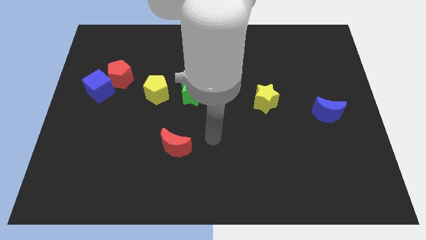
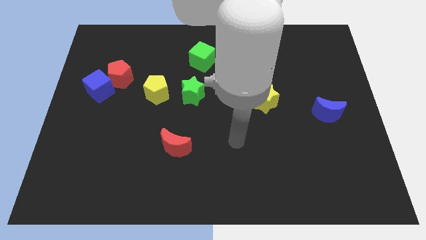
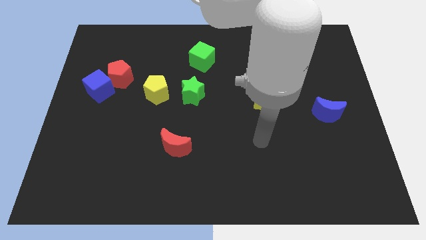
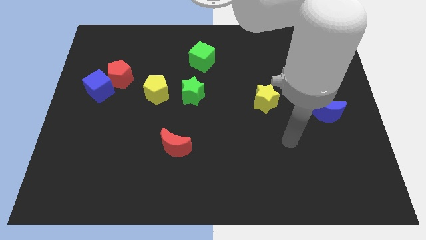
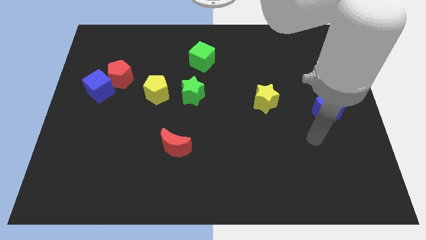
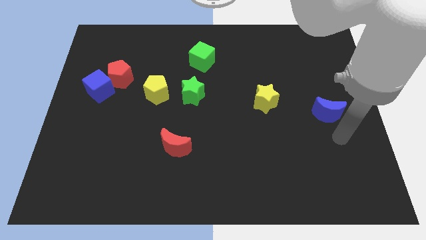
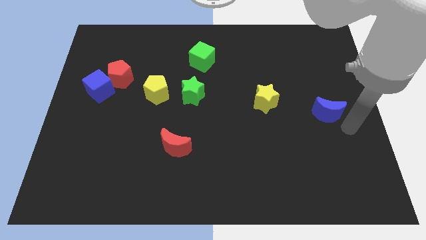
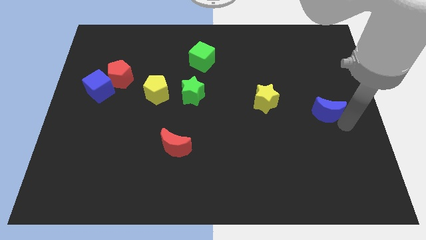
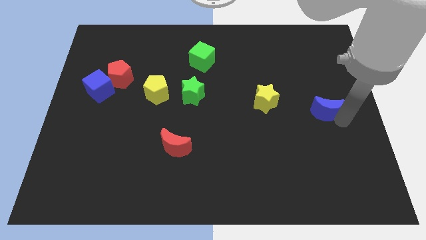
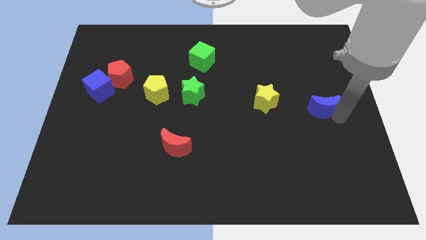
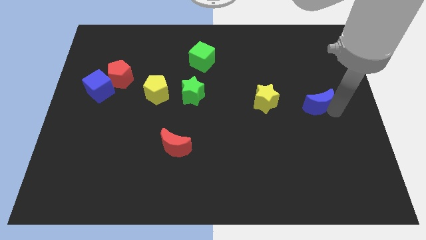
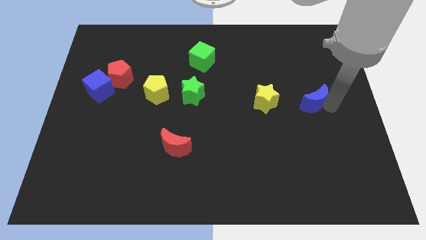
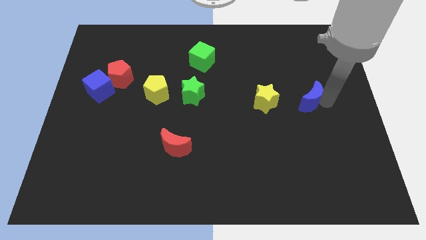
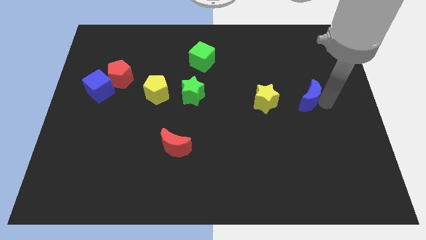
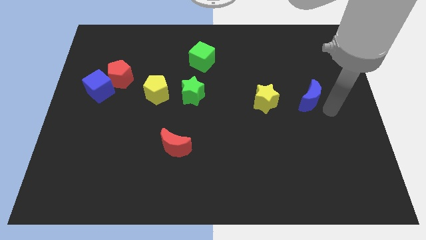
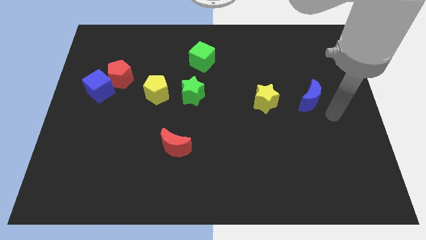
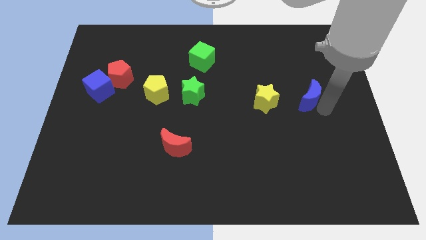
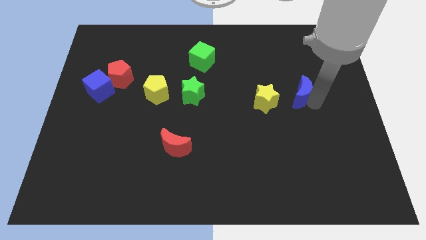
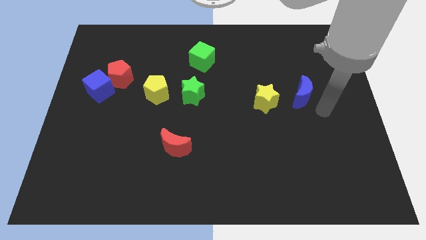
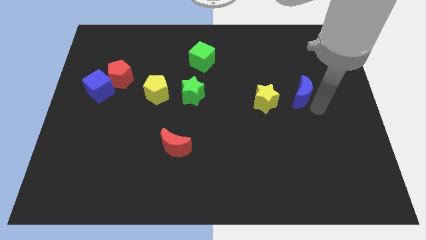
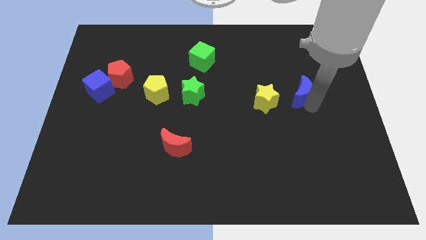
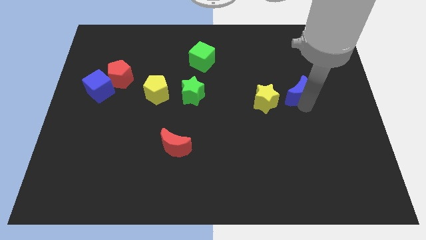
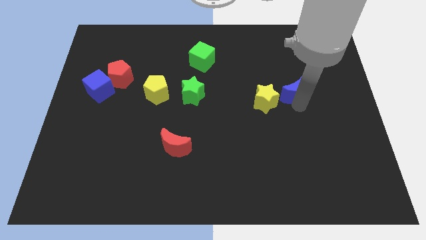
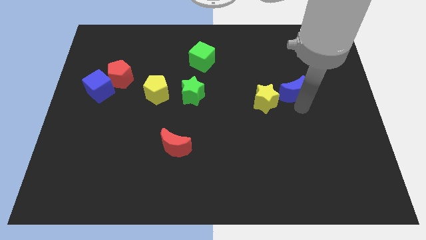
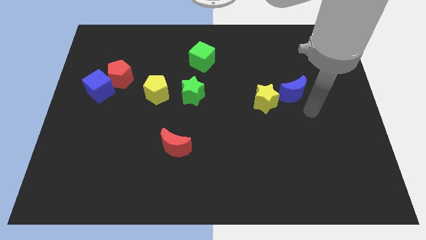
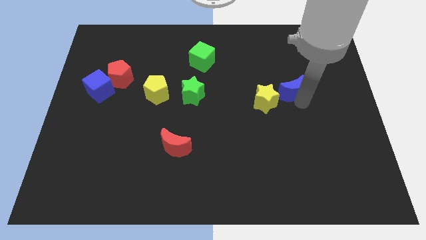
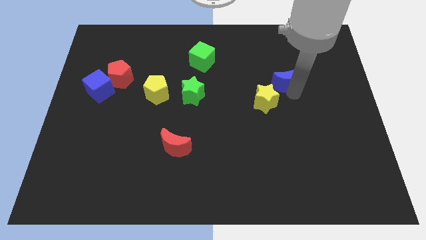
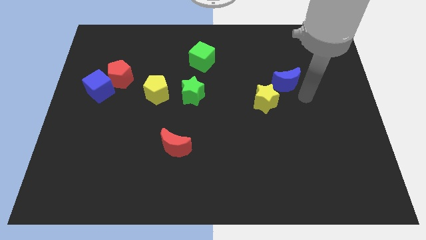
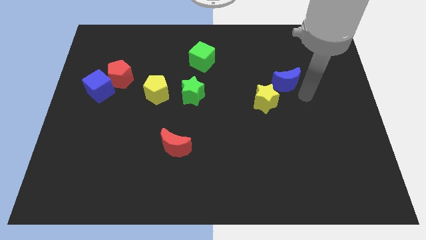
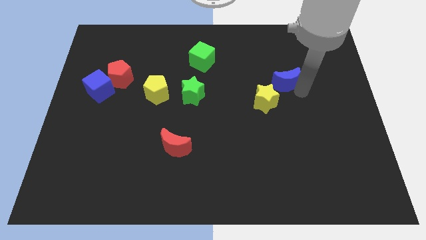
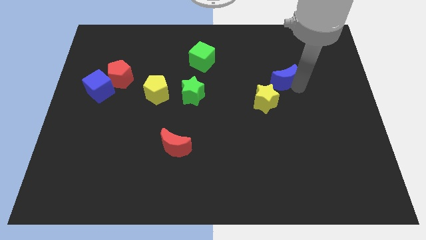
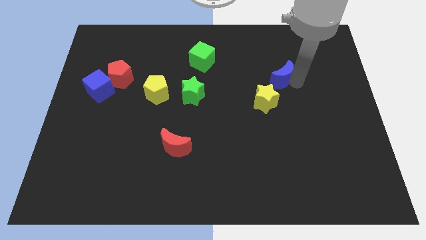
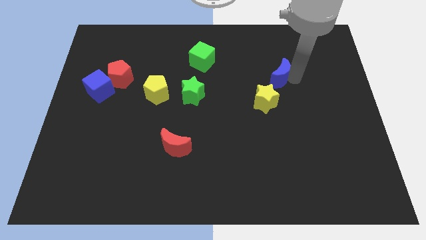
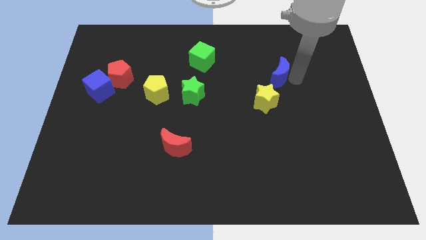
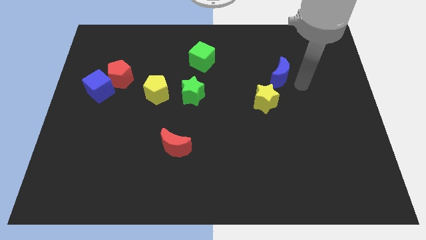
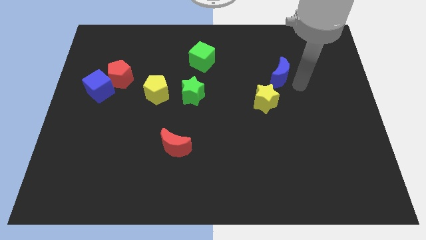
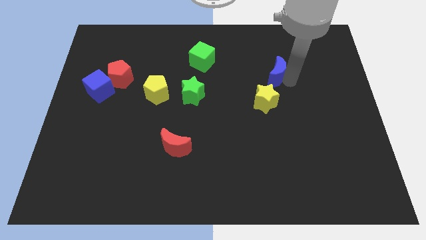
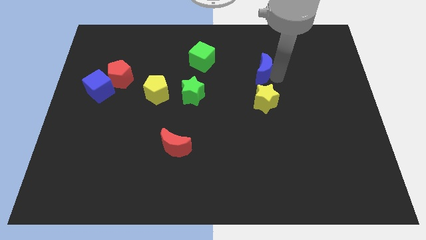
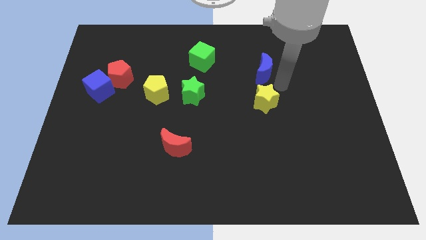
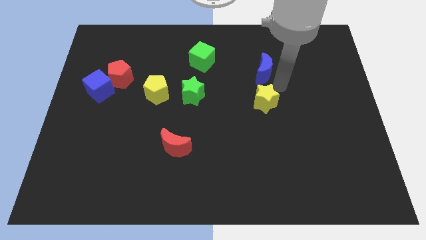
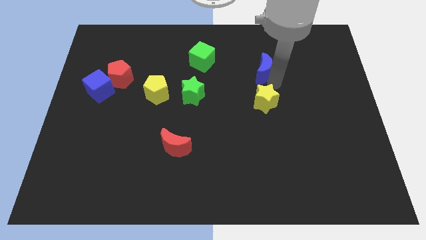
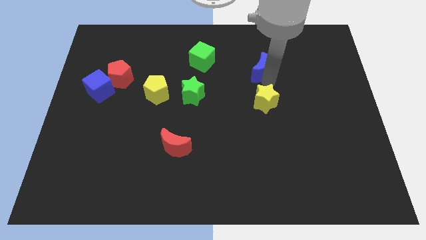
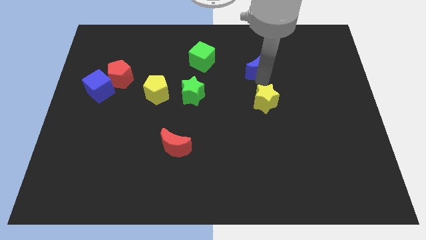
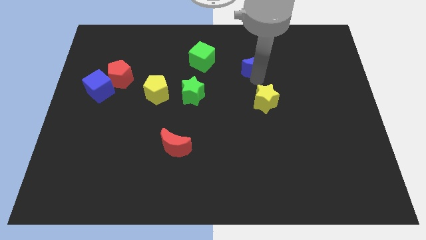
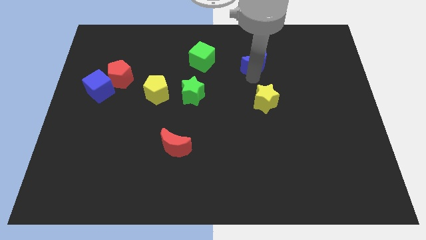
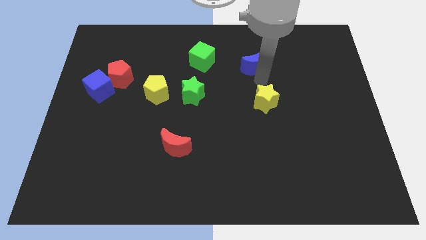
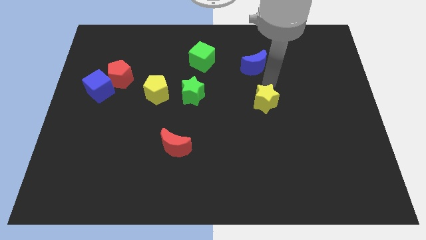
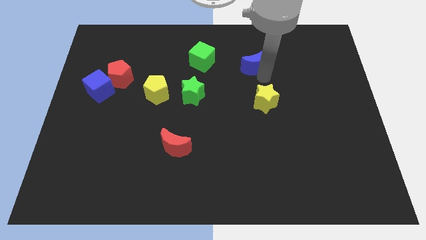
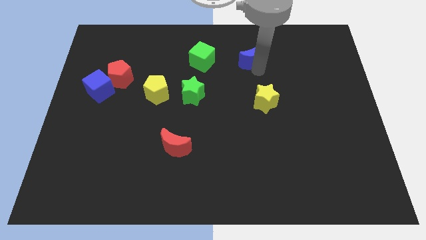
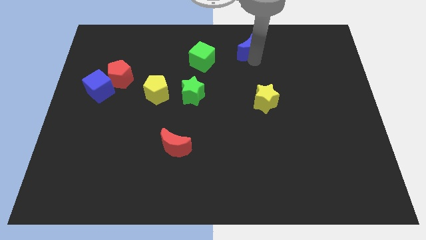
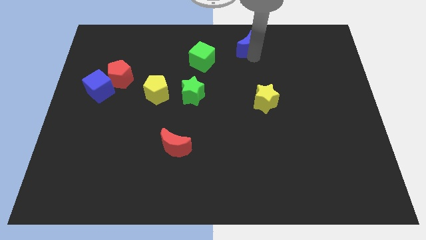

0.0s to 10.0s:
move the blue moon to the top

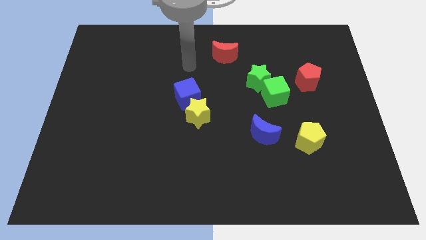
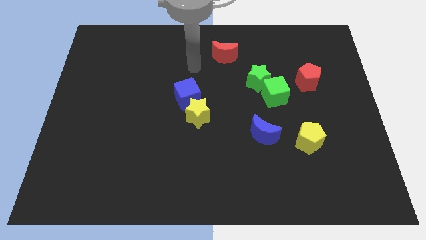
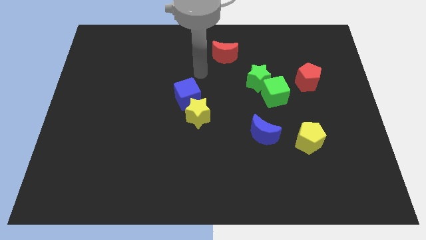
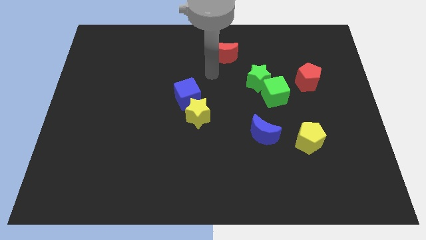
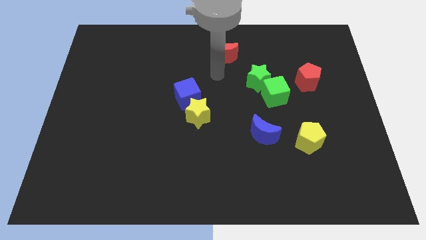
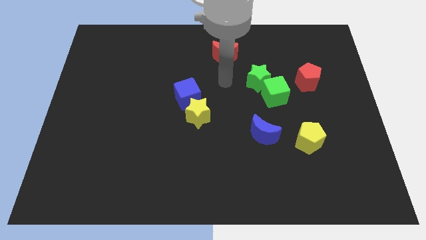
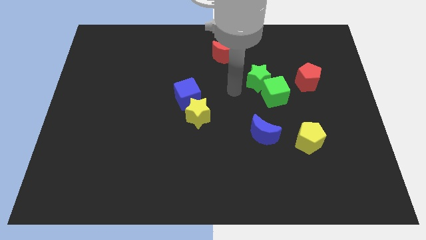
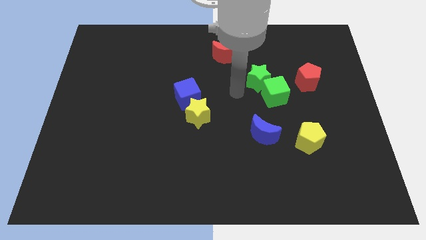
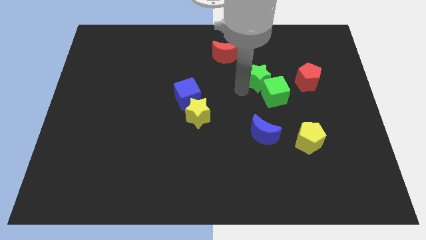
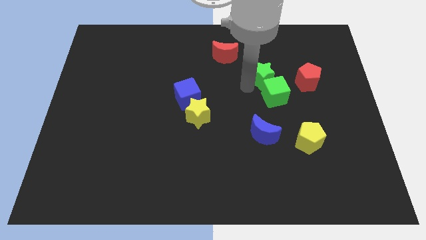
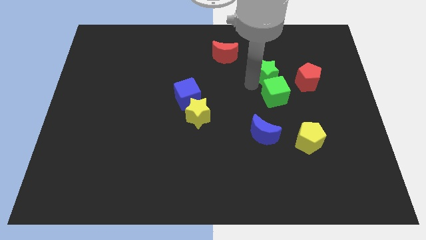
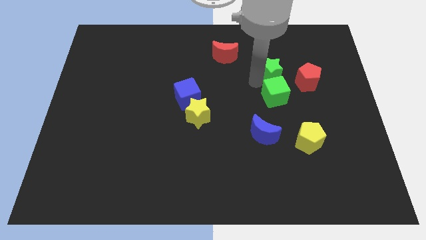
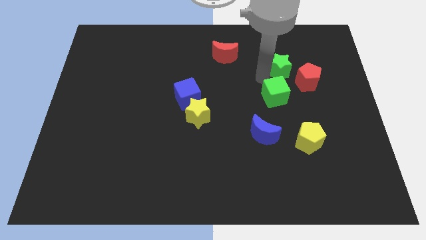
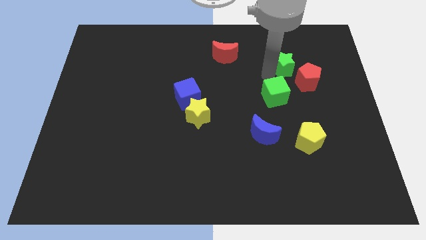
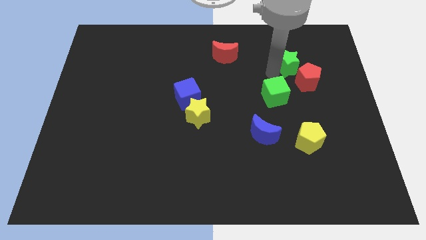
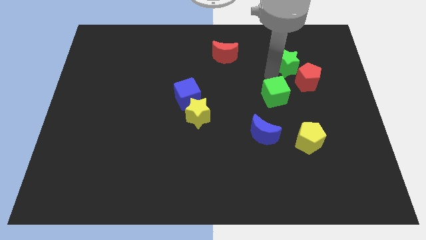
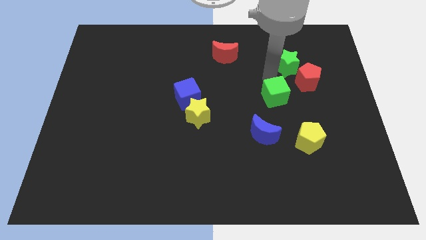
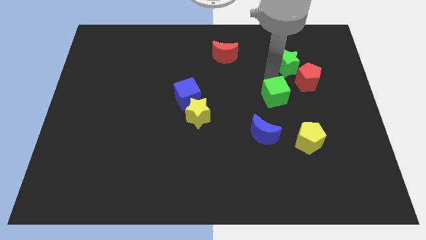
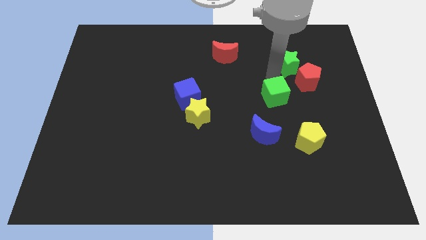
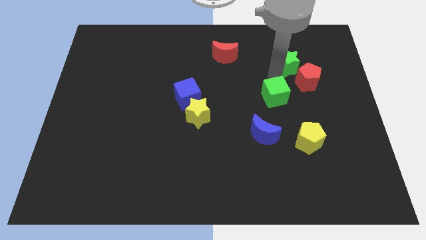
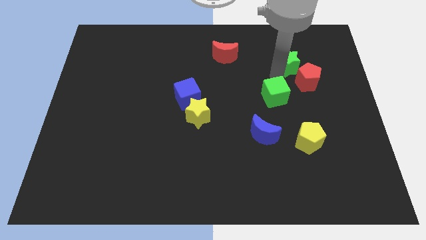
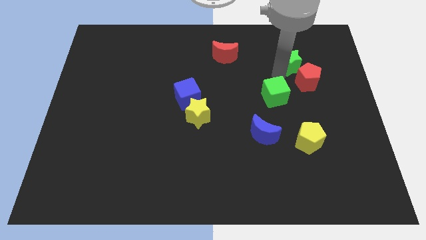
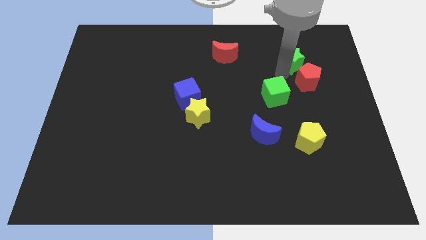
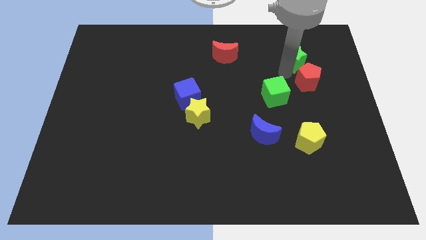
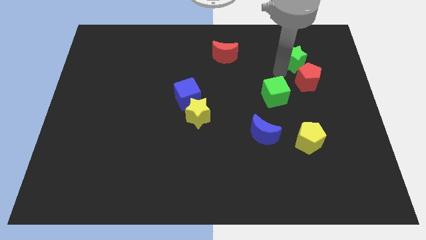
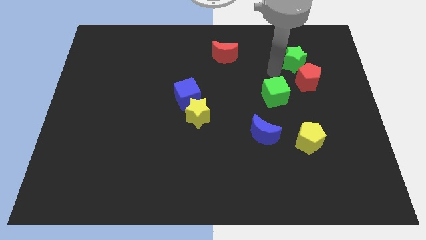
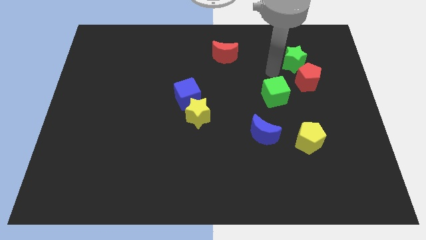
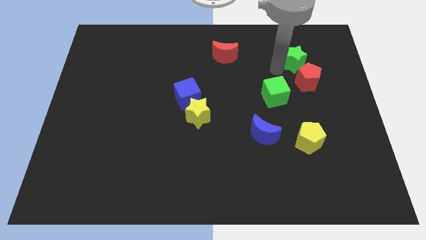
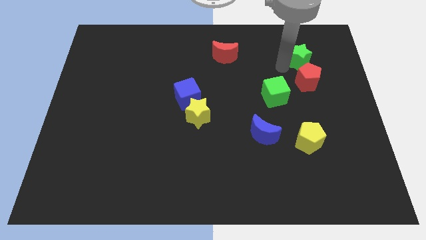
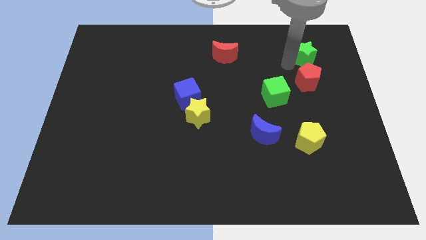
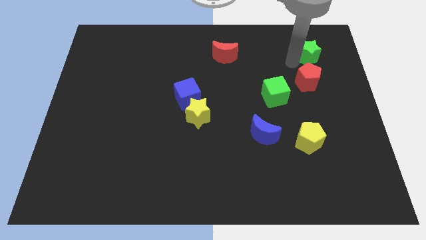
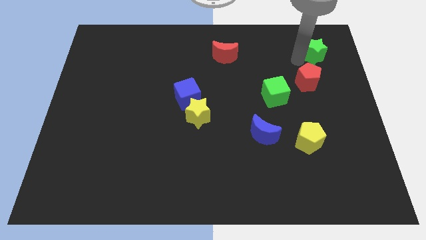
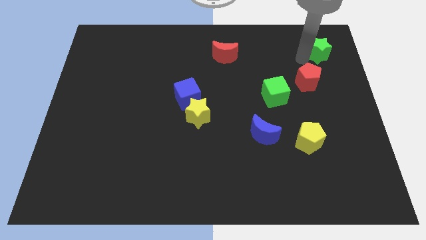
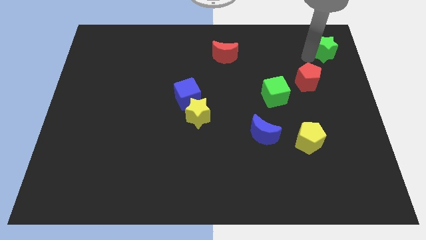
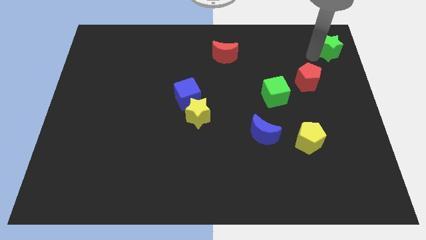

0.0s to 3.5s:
slide the green star to the top right of the board
